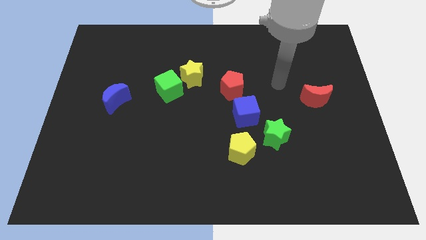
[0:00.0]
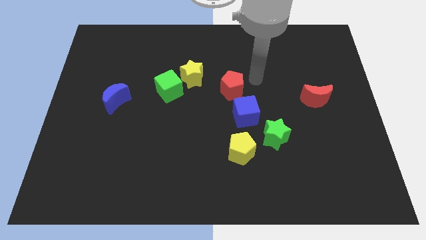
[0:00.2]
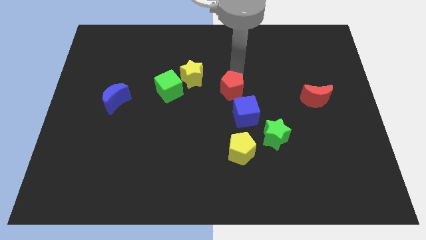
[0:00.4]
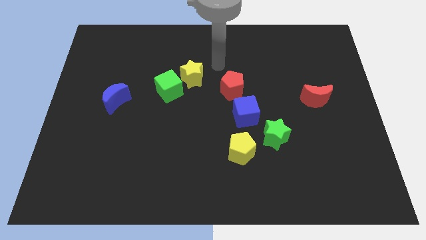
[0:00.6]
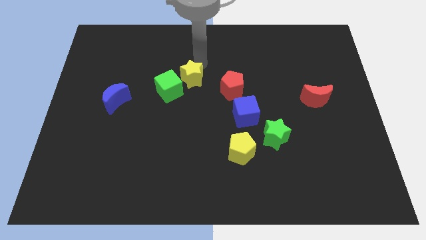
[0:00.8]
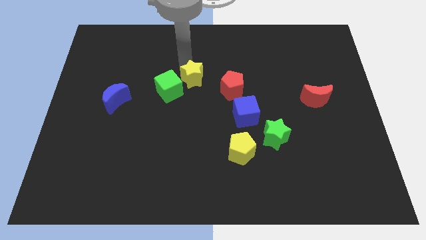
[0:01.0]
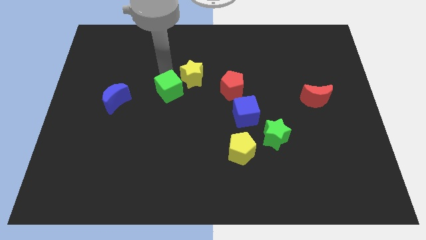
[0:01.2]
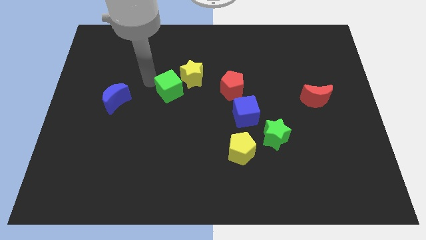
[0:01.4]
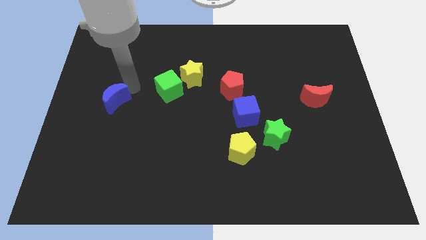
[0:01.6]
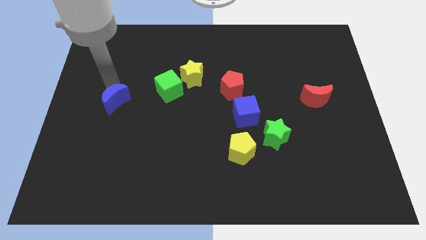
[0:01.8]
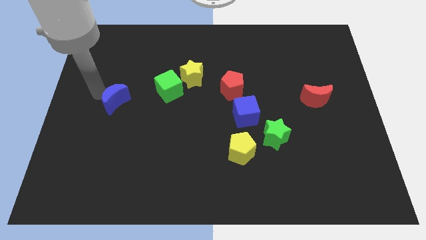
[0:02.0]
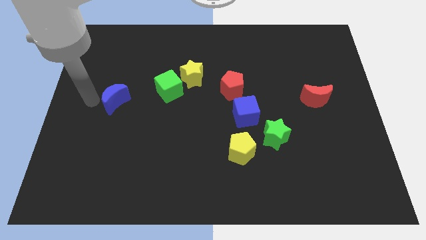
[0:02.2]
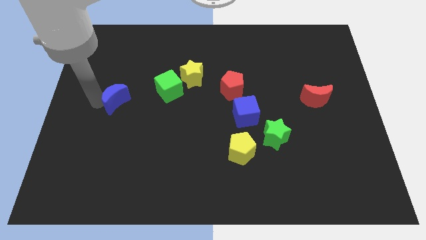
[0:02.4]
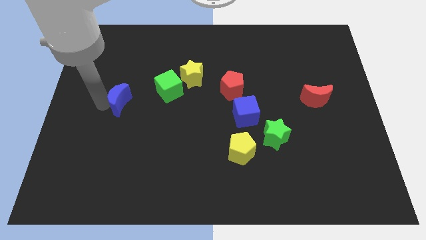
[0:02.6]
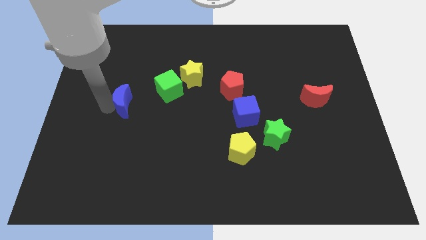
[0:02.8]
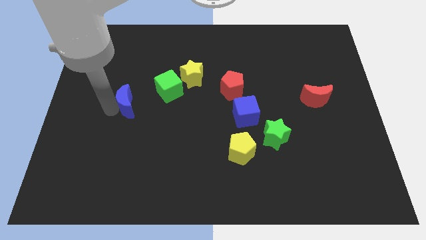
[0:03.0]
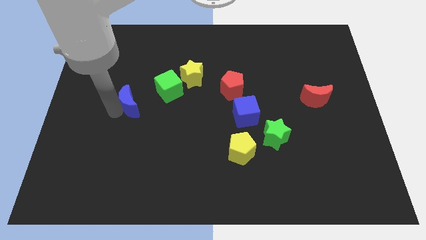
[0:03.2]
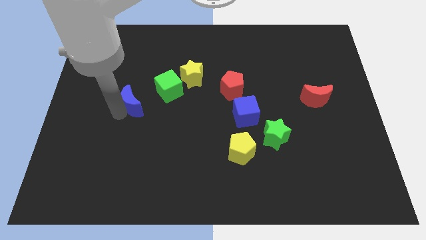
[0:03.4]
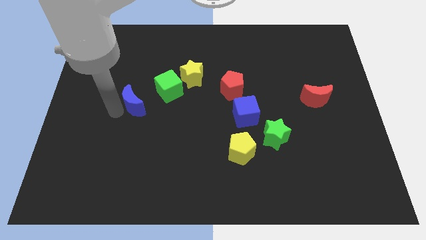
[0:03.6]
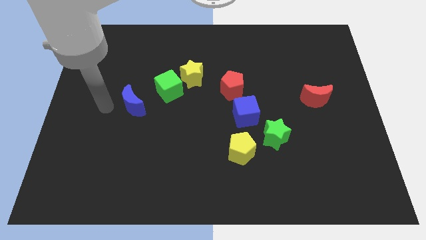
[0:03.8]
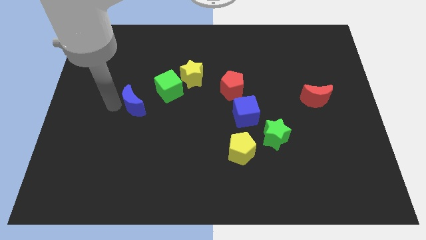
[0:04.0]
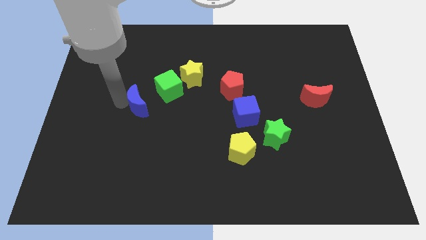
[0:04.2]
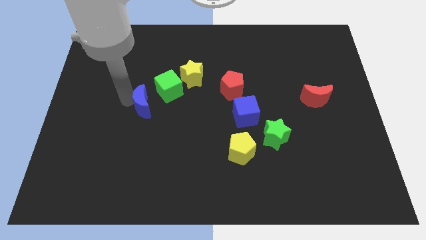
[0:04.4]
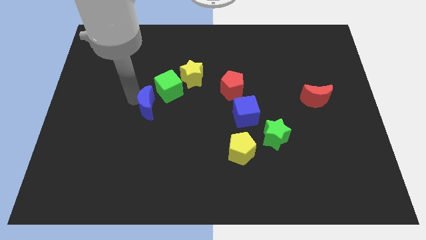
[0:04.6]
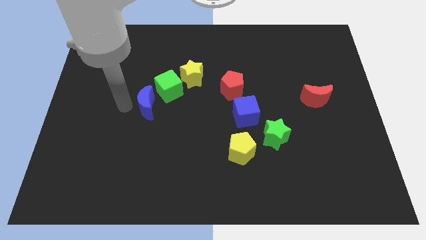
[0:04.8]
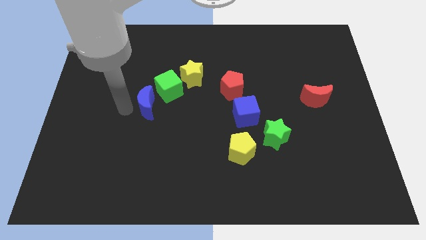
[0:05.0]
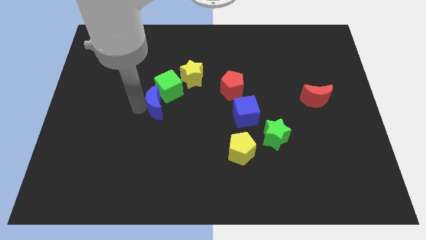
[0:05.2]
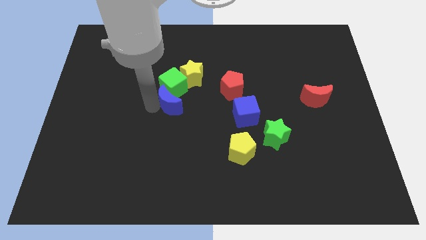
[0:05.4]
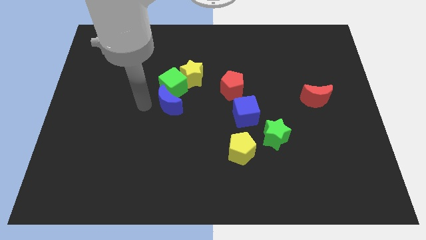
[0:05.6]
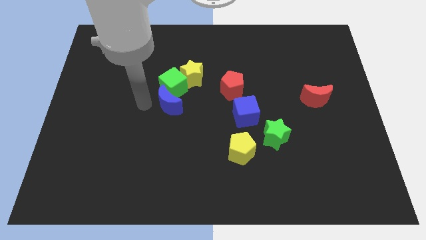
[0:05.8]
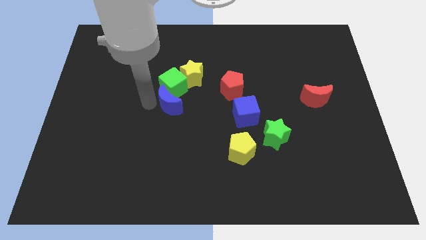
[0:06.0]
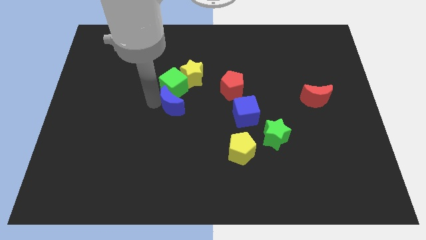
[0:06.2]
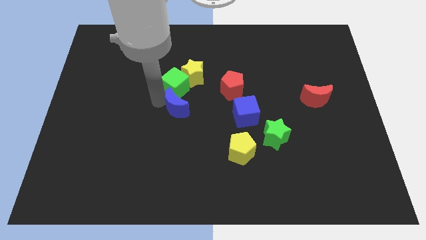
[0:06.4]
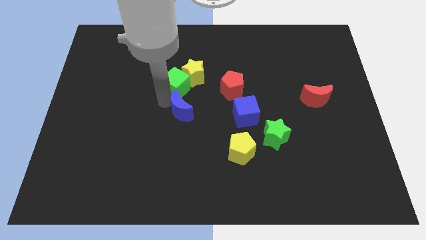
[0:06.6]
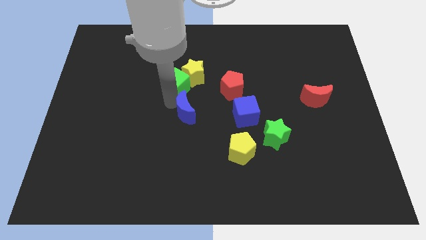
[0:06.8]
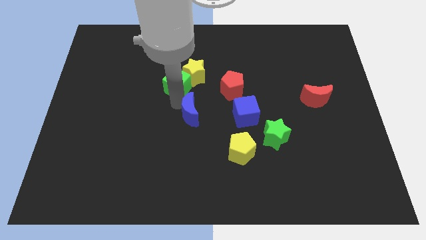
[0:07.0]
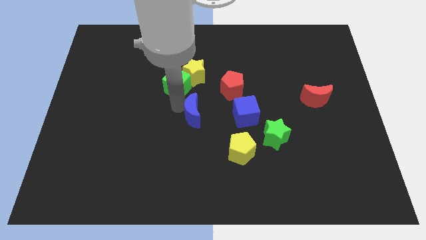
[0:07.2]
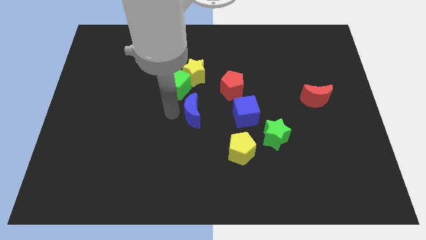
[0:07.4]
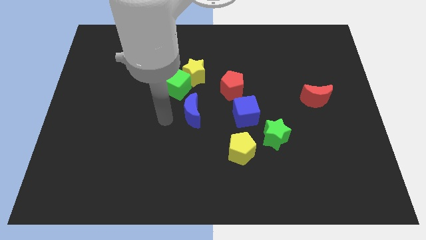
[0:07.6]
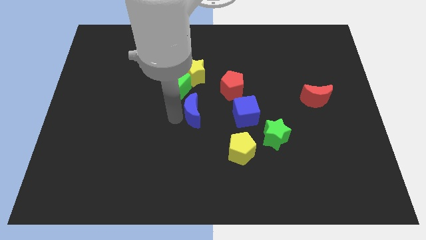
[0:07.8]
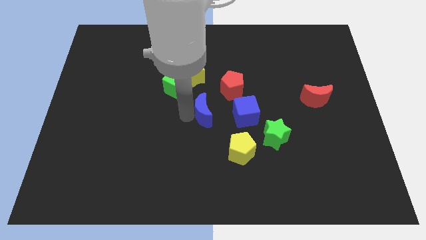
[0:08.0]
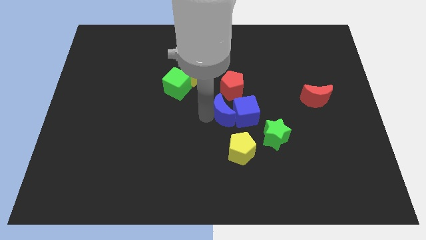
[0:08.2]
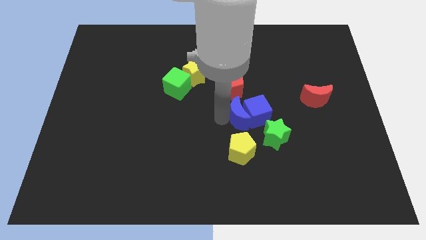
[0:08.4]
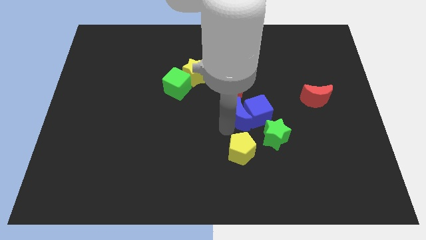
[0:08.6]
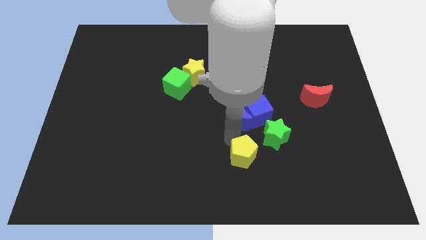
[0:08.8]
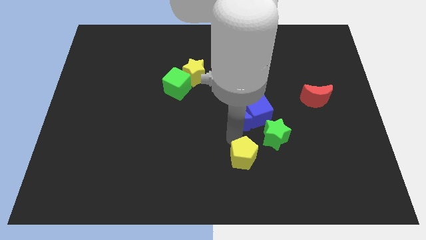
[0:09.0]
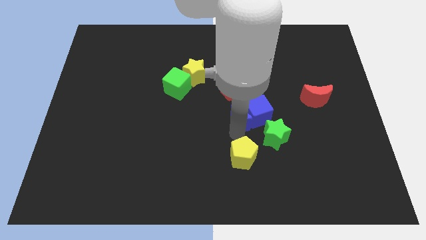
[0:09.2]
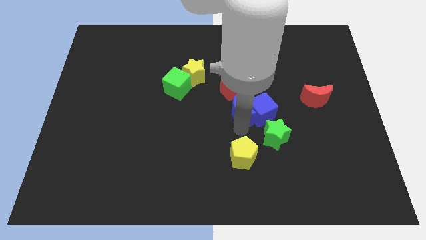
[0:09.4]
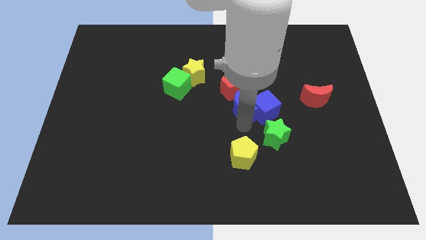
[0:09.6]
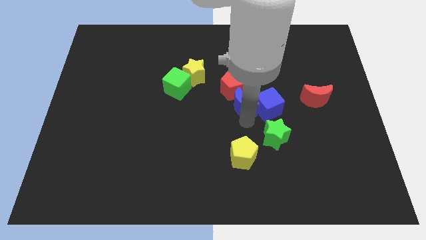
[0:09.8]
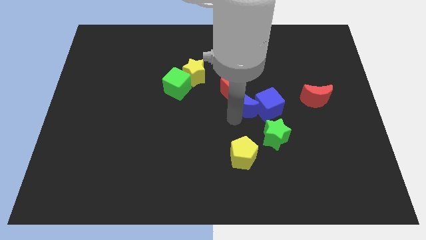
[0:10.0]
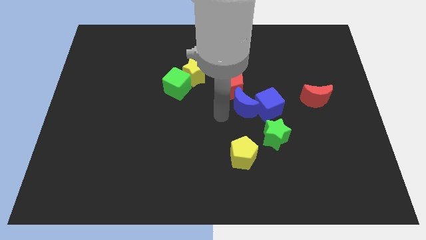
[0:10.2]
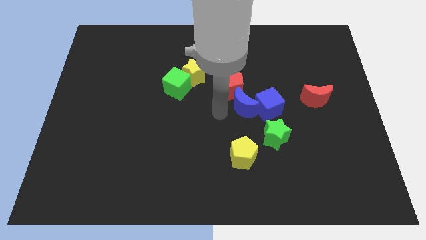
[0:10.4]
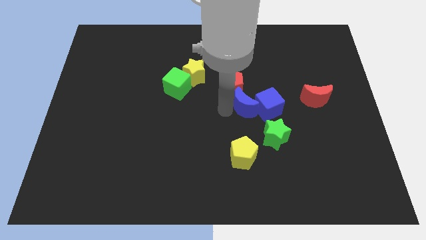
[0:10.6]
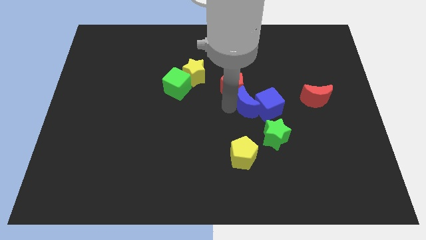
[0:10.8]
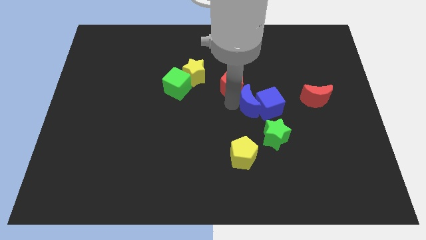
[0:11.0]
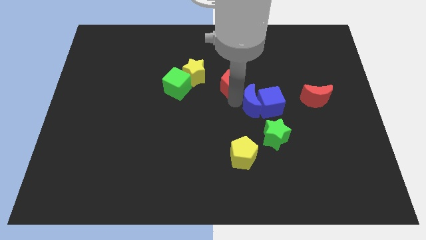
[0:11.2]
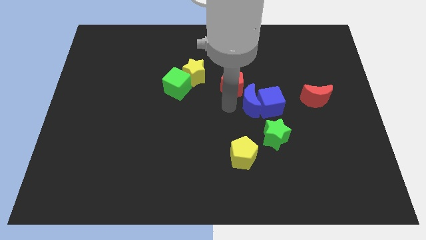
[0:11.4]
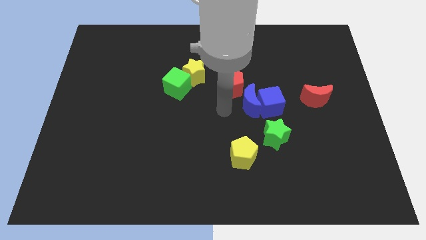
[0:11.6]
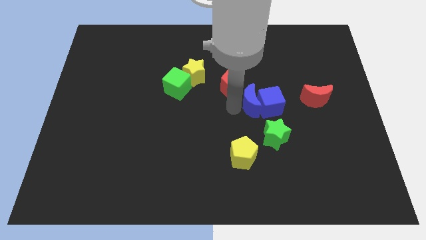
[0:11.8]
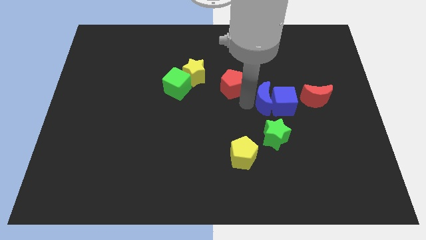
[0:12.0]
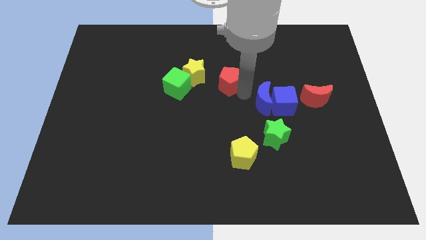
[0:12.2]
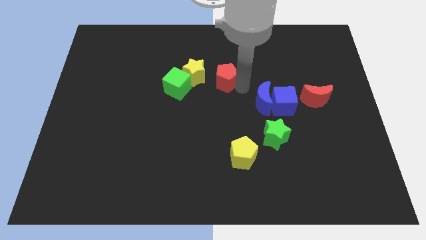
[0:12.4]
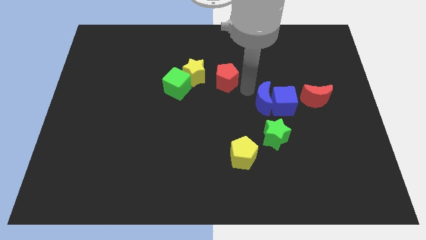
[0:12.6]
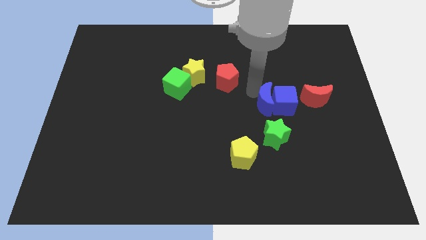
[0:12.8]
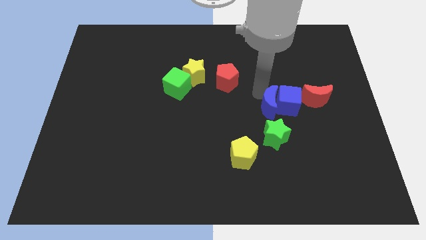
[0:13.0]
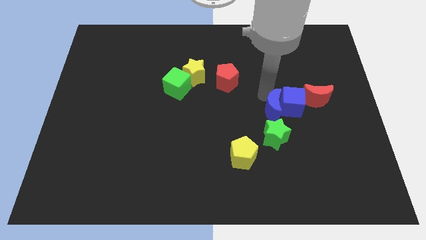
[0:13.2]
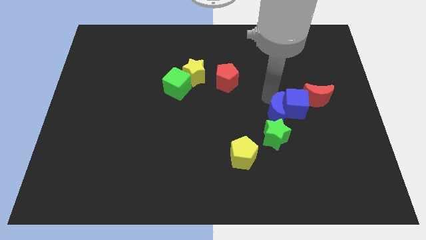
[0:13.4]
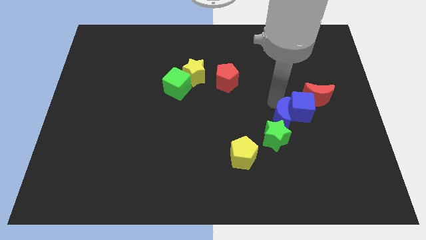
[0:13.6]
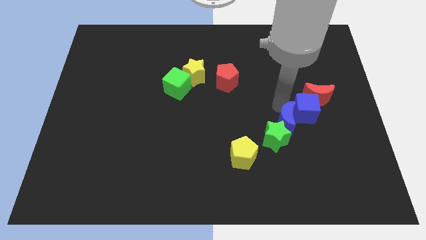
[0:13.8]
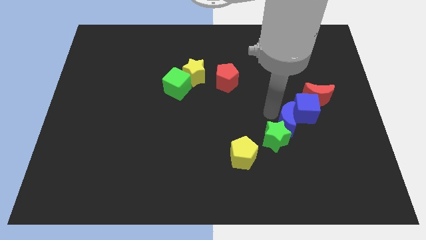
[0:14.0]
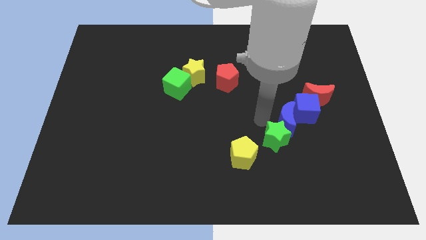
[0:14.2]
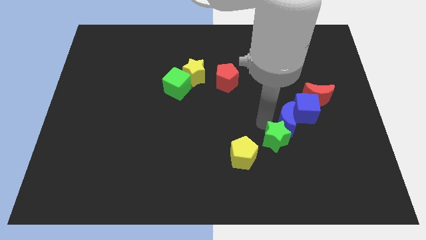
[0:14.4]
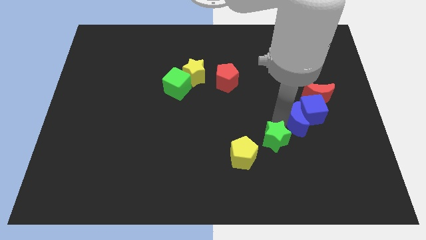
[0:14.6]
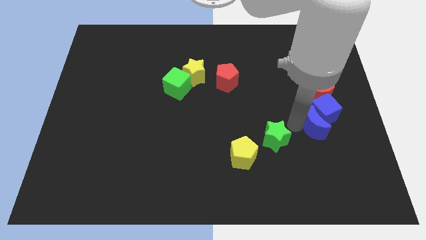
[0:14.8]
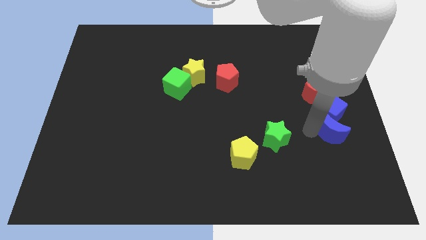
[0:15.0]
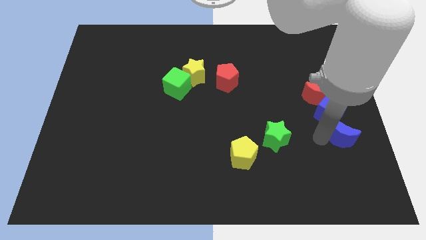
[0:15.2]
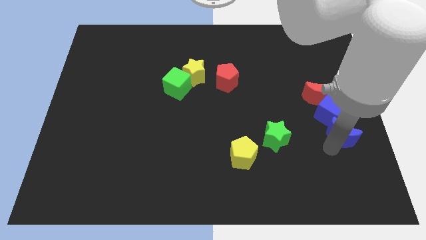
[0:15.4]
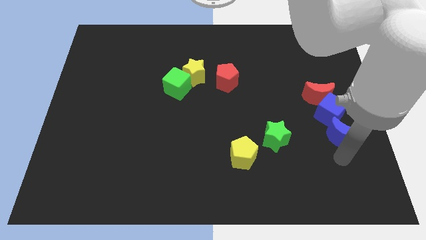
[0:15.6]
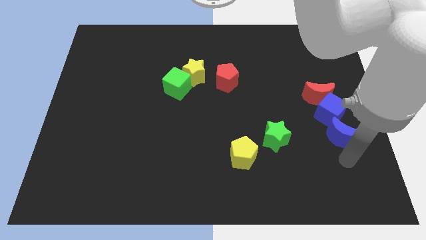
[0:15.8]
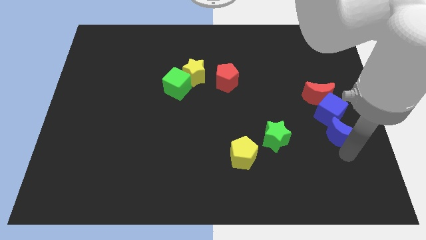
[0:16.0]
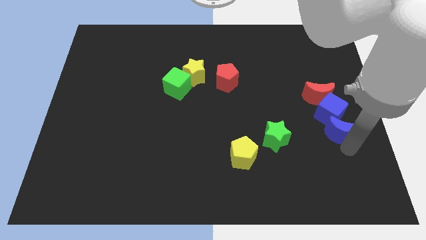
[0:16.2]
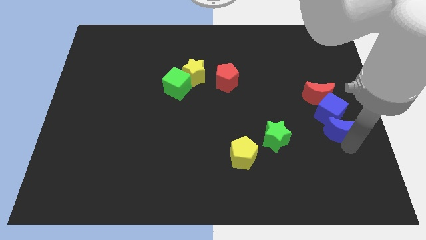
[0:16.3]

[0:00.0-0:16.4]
move the blue moon to the right side
